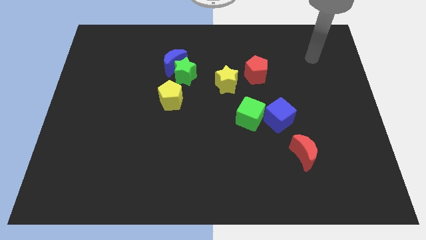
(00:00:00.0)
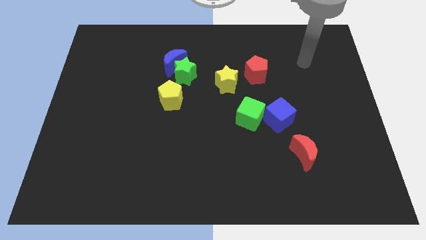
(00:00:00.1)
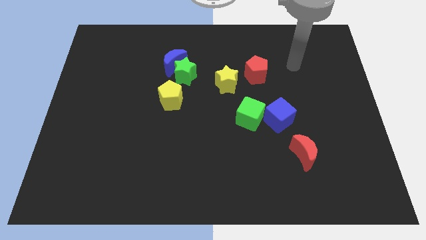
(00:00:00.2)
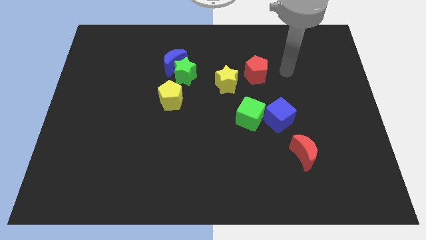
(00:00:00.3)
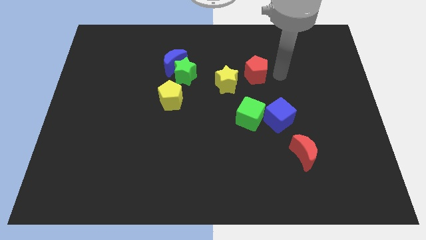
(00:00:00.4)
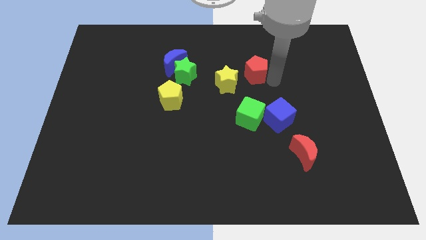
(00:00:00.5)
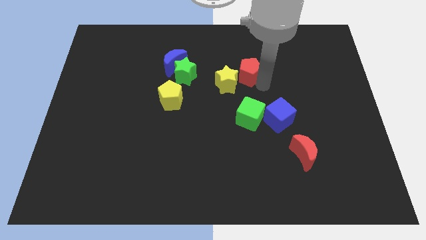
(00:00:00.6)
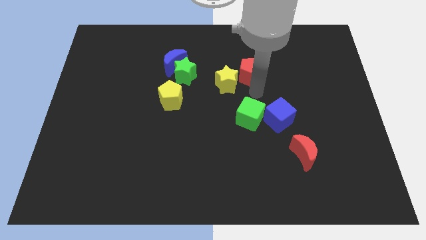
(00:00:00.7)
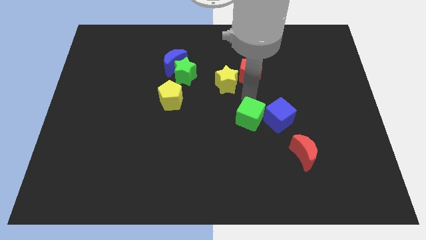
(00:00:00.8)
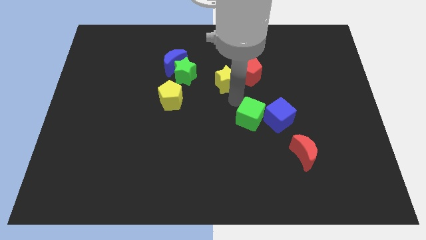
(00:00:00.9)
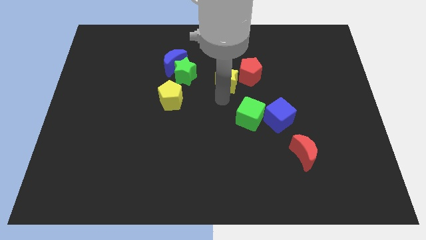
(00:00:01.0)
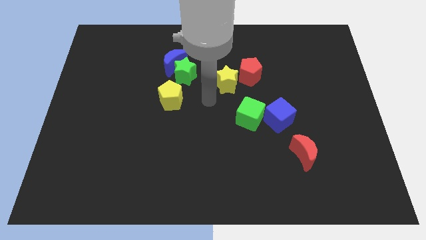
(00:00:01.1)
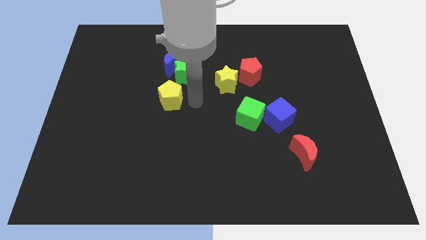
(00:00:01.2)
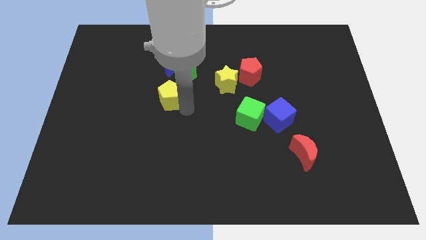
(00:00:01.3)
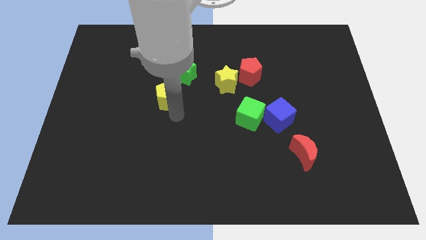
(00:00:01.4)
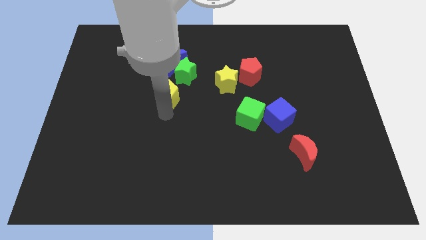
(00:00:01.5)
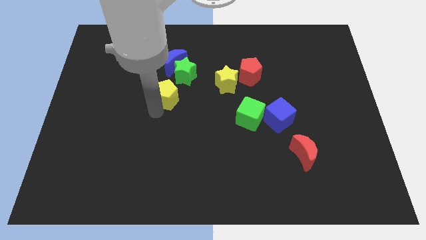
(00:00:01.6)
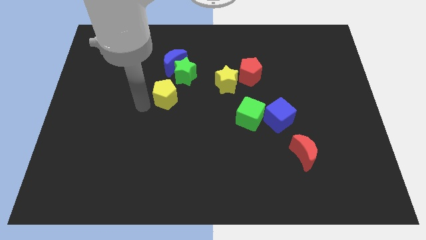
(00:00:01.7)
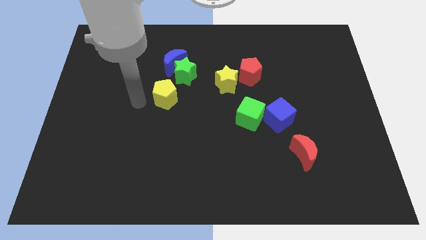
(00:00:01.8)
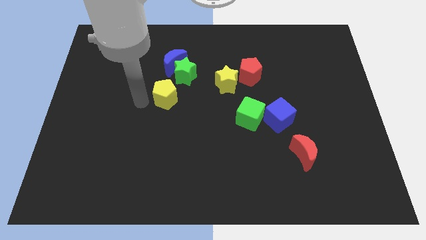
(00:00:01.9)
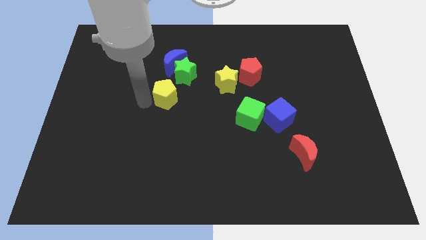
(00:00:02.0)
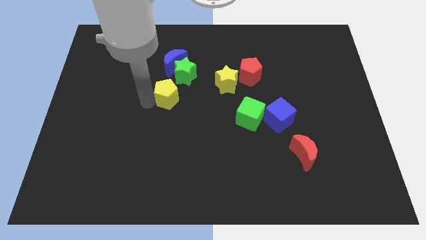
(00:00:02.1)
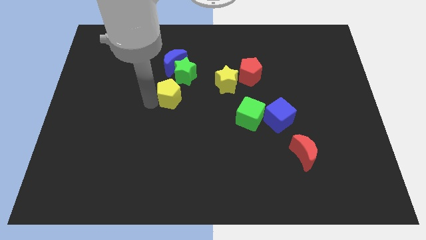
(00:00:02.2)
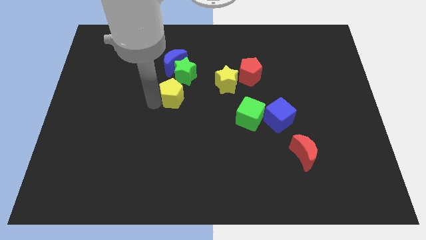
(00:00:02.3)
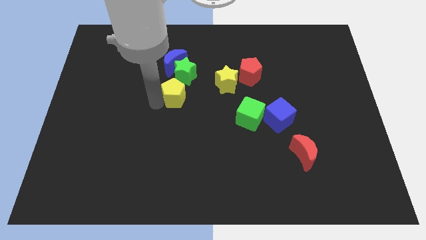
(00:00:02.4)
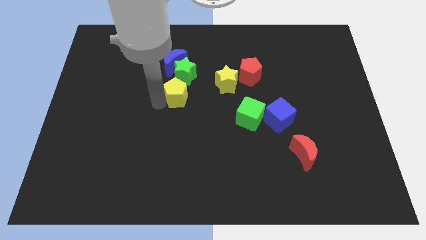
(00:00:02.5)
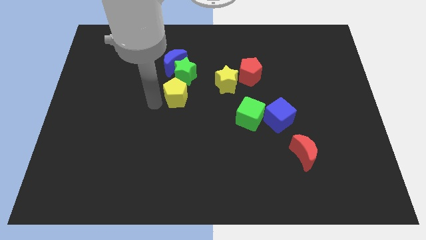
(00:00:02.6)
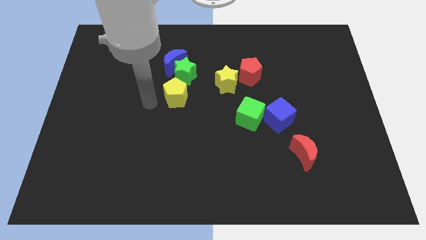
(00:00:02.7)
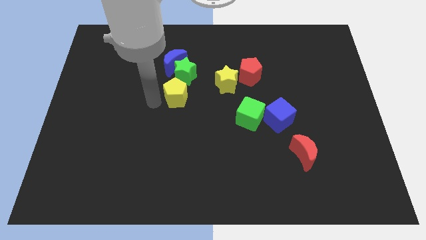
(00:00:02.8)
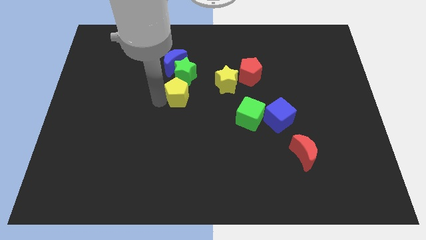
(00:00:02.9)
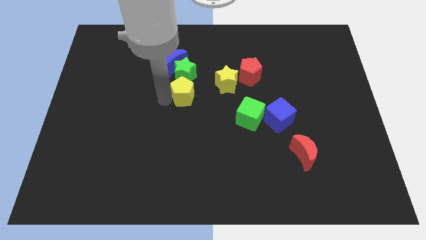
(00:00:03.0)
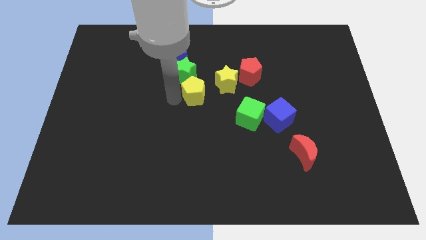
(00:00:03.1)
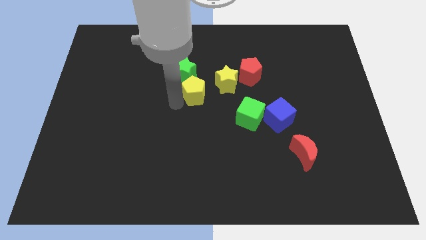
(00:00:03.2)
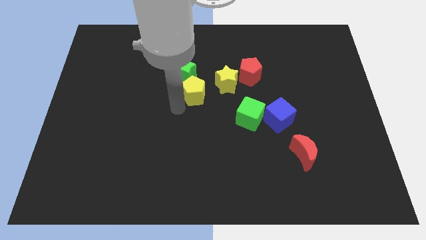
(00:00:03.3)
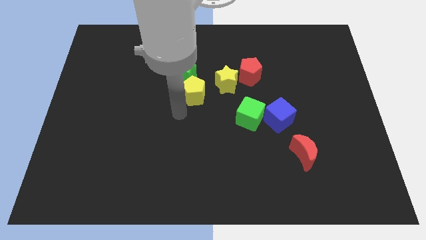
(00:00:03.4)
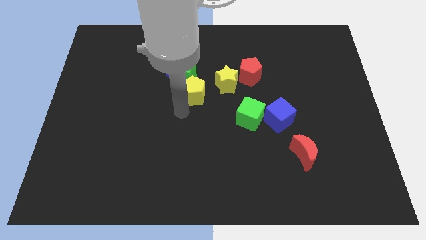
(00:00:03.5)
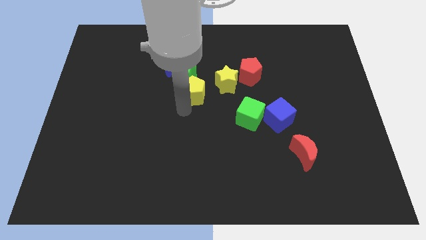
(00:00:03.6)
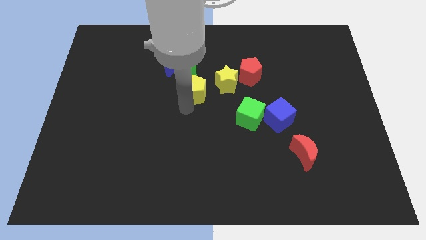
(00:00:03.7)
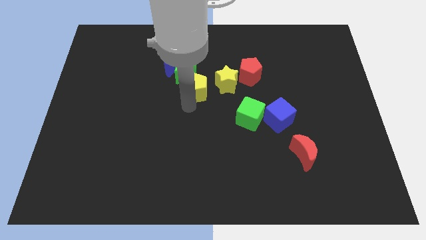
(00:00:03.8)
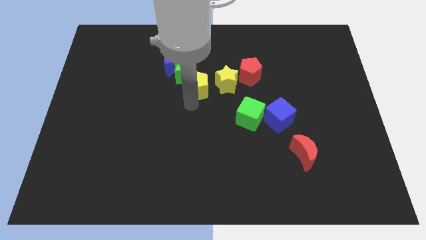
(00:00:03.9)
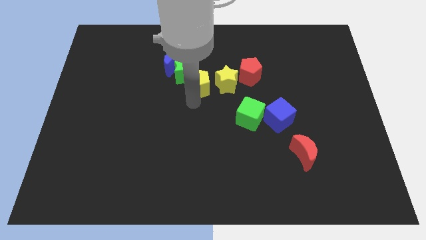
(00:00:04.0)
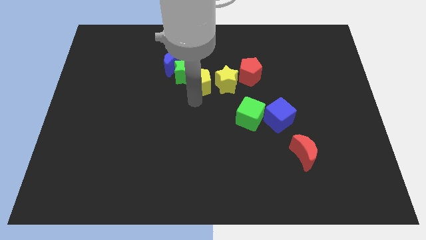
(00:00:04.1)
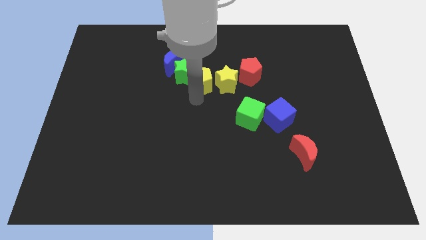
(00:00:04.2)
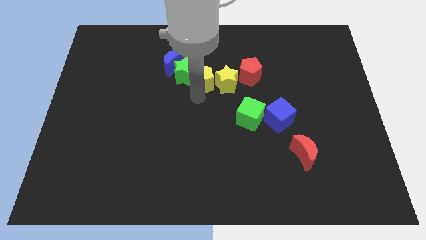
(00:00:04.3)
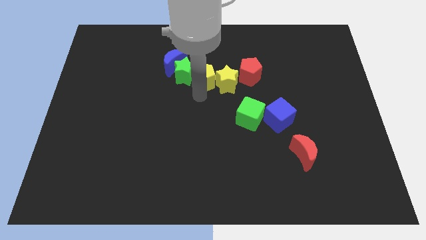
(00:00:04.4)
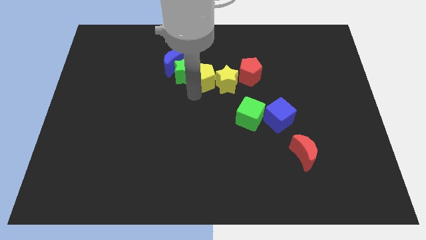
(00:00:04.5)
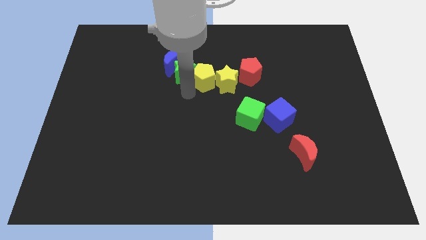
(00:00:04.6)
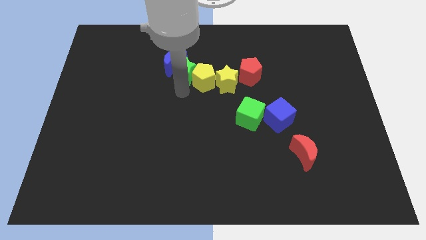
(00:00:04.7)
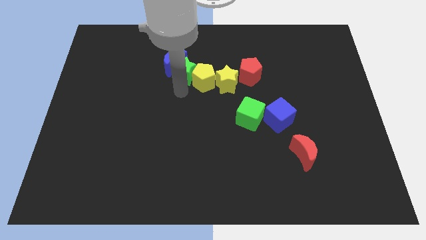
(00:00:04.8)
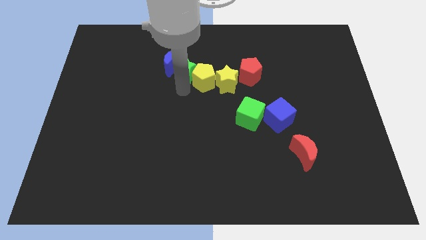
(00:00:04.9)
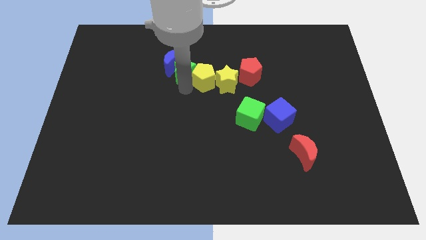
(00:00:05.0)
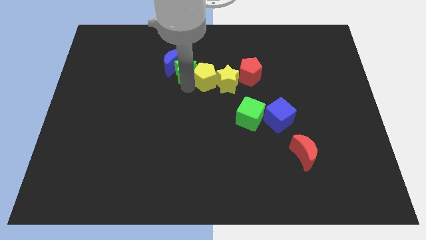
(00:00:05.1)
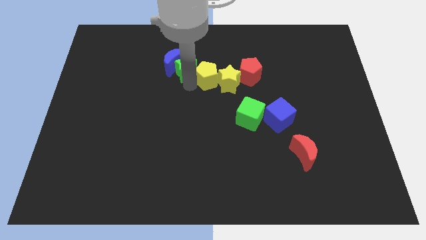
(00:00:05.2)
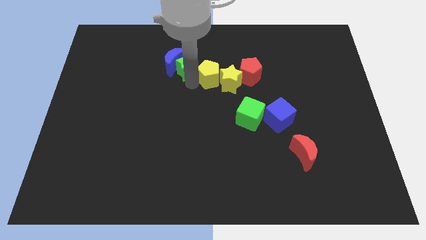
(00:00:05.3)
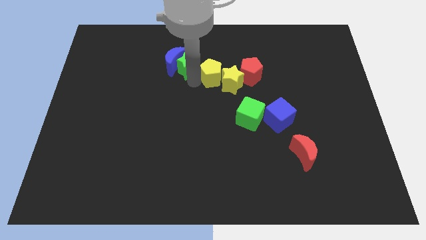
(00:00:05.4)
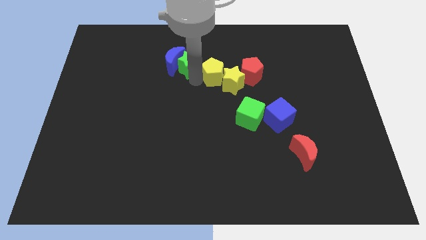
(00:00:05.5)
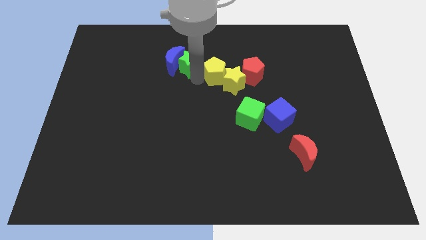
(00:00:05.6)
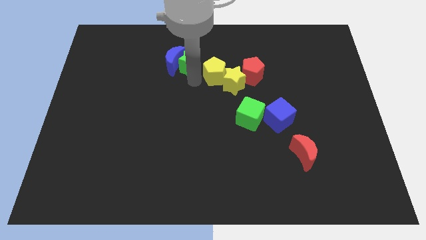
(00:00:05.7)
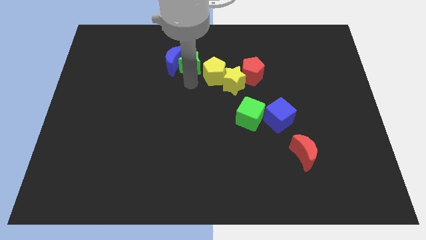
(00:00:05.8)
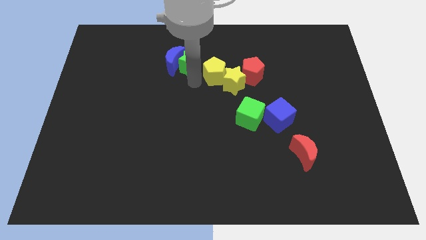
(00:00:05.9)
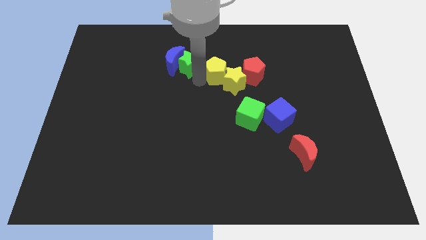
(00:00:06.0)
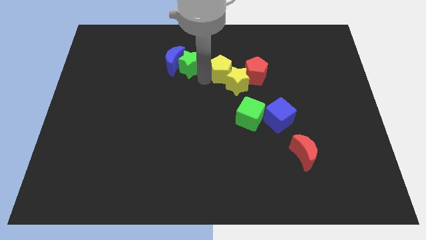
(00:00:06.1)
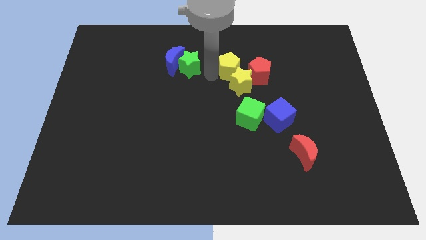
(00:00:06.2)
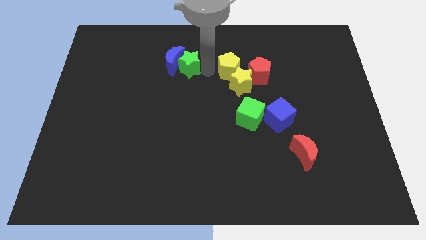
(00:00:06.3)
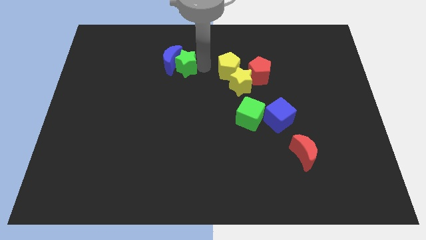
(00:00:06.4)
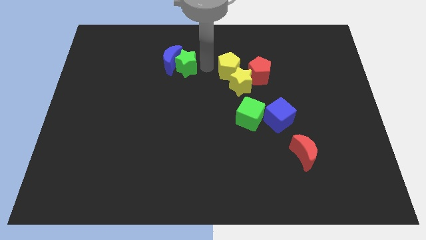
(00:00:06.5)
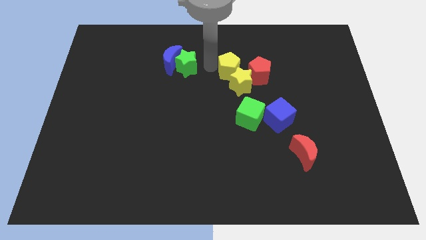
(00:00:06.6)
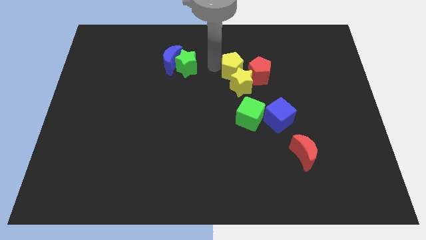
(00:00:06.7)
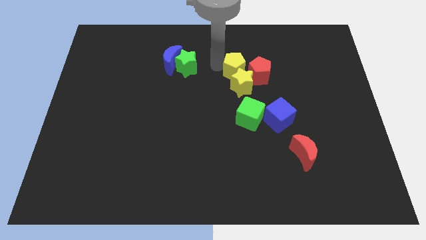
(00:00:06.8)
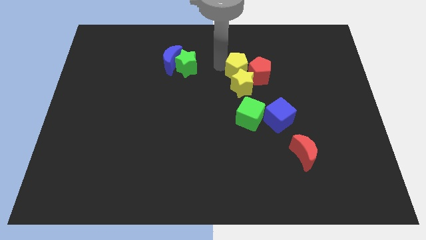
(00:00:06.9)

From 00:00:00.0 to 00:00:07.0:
push the yellow pentagon towards the red pentagon

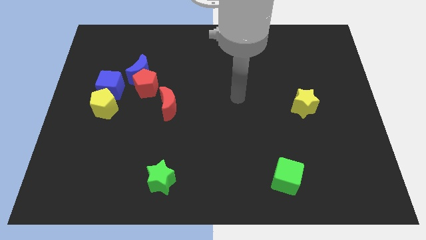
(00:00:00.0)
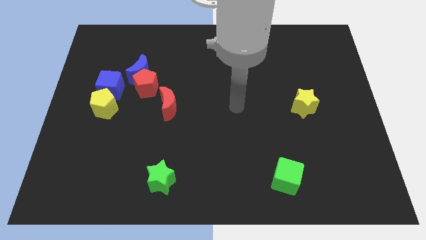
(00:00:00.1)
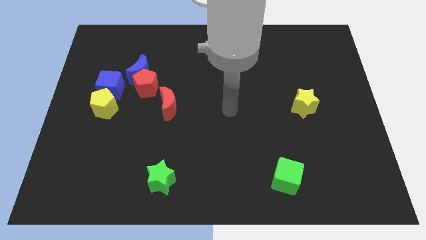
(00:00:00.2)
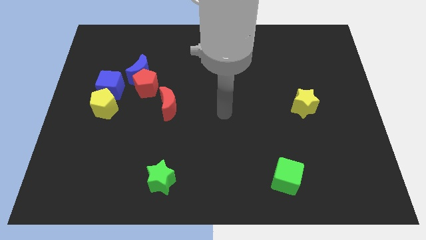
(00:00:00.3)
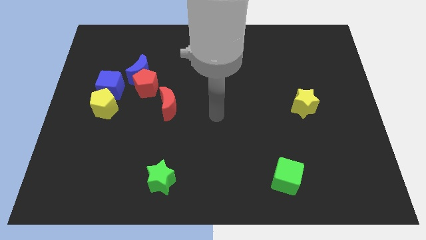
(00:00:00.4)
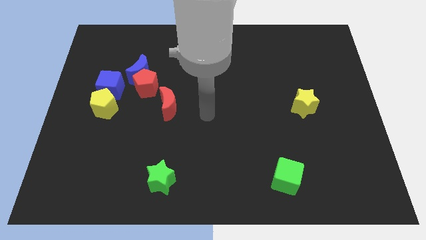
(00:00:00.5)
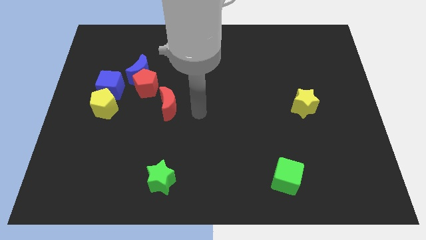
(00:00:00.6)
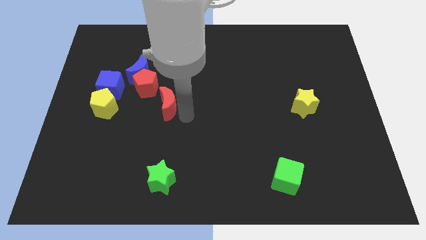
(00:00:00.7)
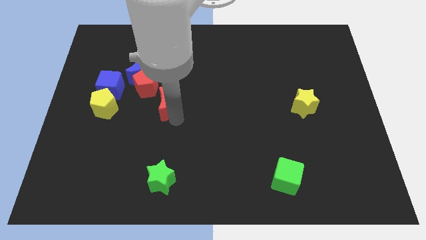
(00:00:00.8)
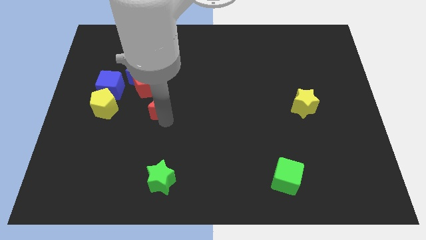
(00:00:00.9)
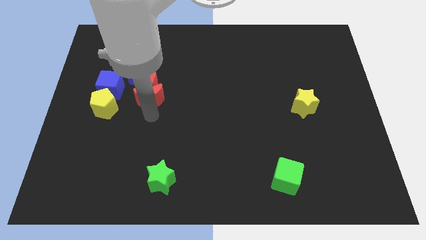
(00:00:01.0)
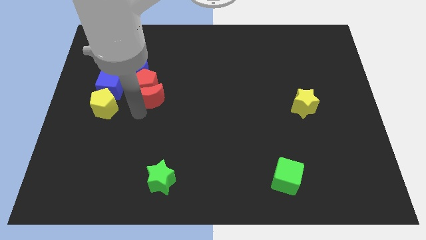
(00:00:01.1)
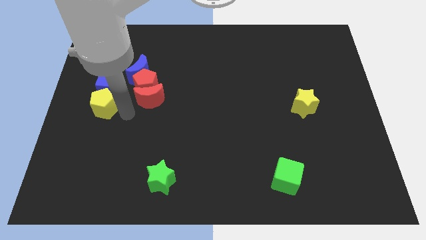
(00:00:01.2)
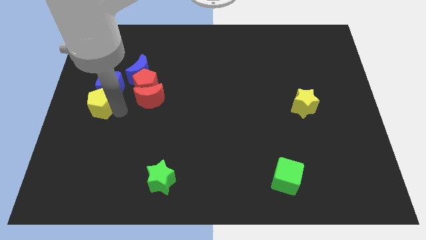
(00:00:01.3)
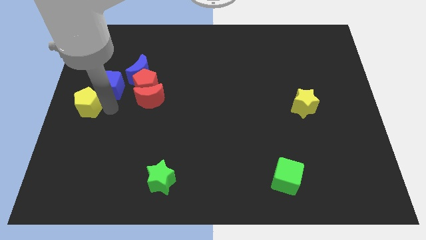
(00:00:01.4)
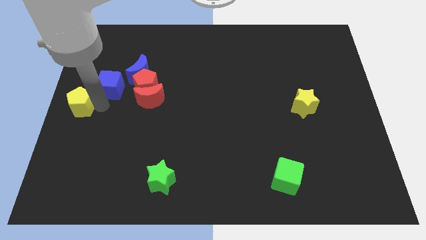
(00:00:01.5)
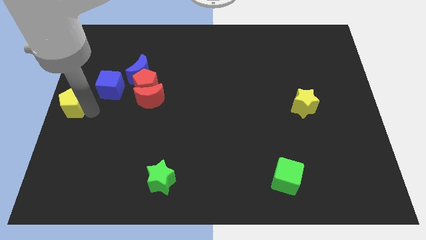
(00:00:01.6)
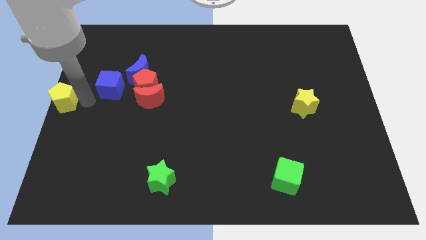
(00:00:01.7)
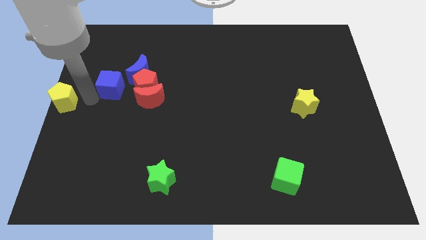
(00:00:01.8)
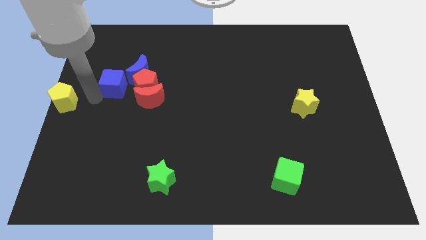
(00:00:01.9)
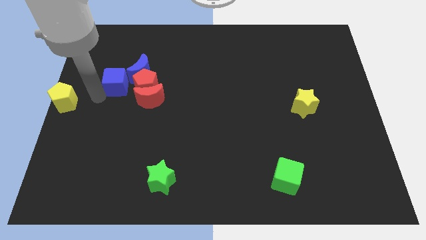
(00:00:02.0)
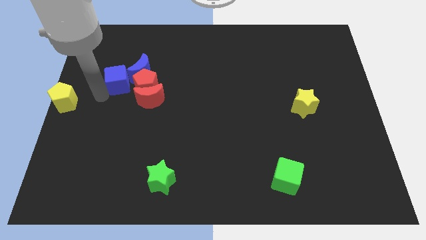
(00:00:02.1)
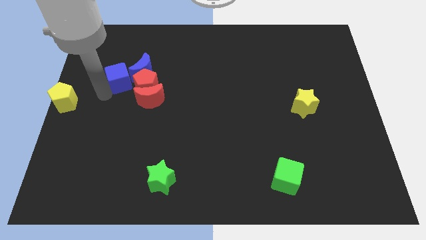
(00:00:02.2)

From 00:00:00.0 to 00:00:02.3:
move the blue cube towards the blue moon
